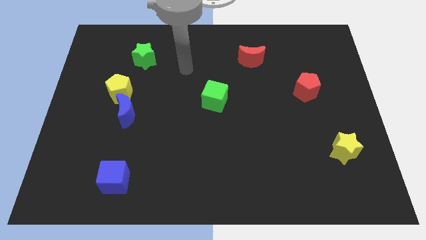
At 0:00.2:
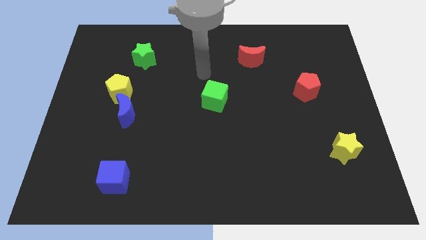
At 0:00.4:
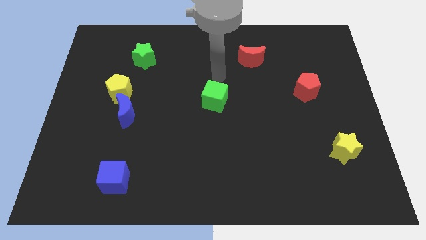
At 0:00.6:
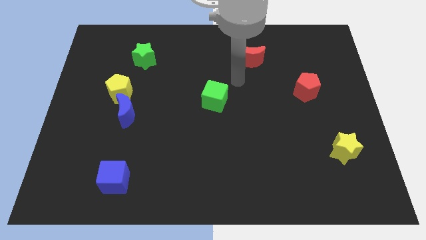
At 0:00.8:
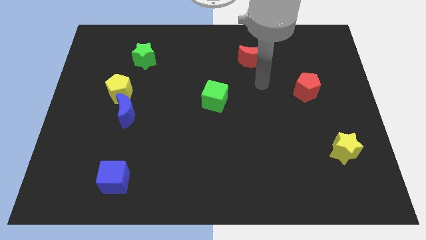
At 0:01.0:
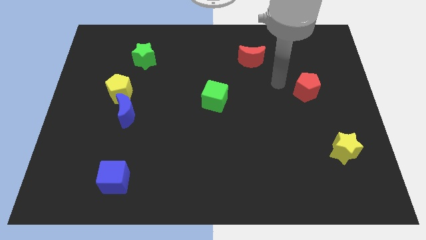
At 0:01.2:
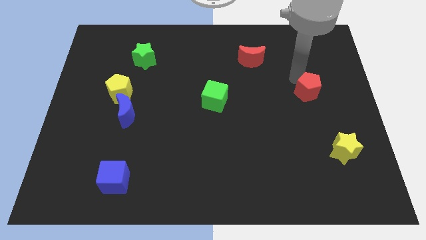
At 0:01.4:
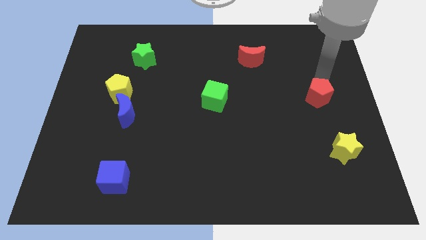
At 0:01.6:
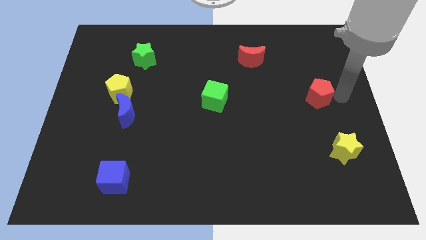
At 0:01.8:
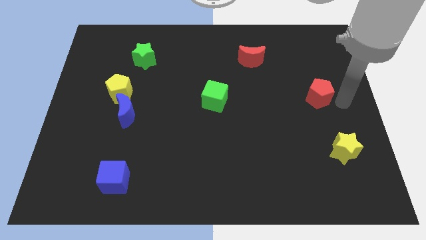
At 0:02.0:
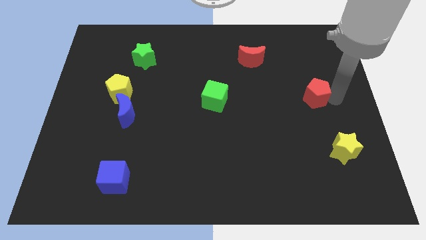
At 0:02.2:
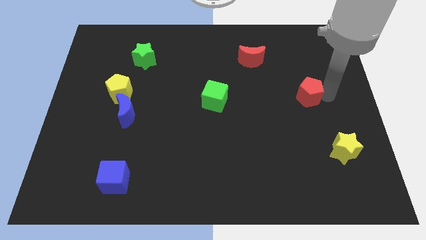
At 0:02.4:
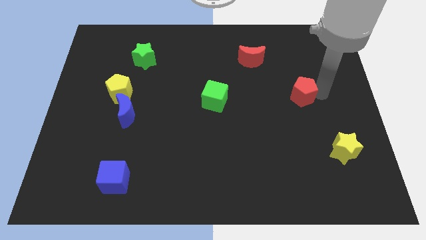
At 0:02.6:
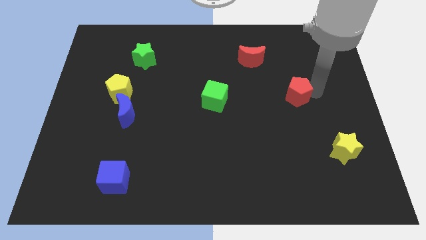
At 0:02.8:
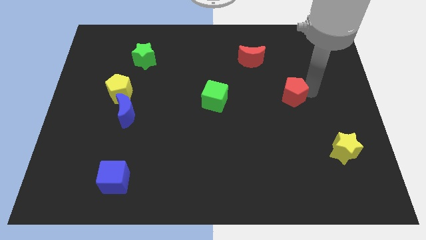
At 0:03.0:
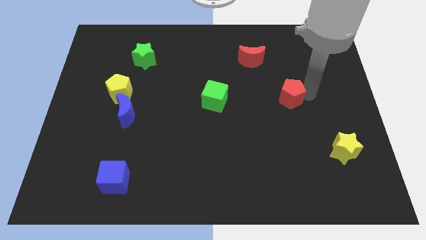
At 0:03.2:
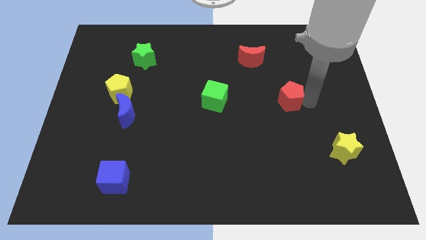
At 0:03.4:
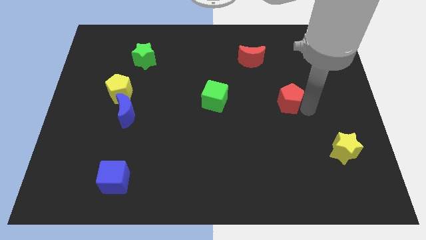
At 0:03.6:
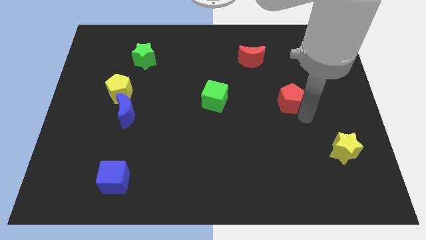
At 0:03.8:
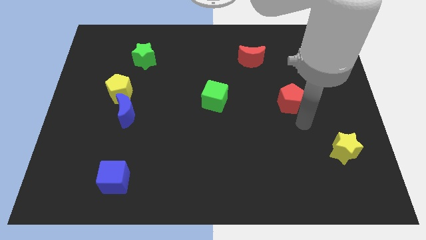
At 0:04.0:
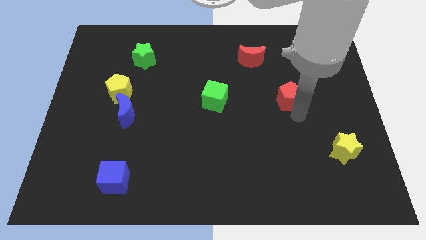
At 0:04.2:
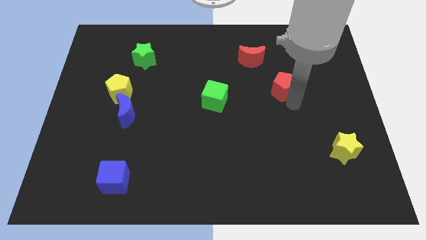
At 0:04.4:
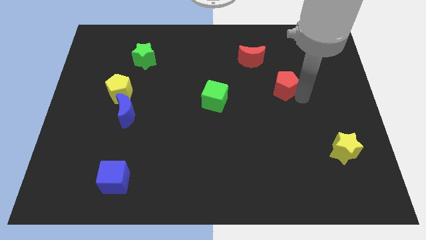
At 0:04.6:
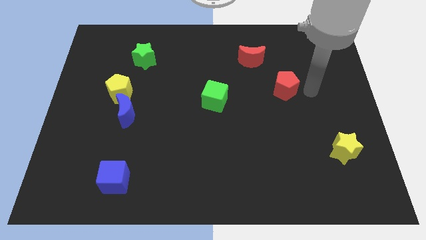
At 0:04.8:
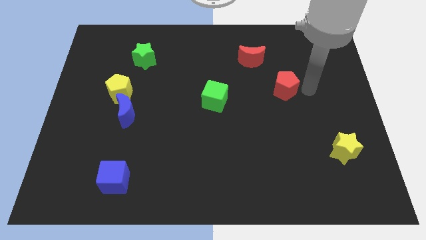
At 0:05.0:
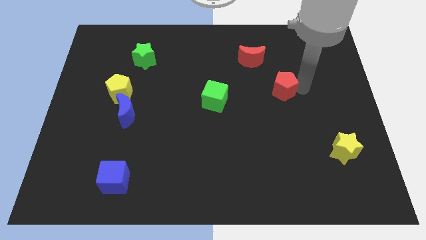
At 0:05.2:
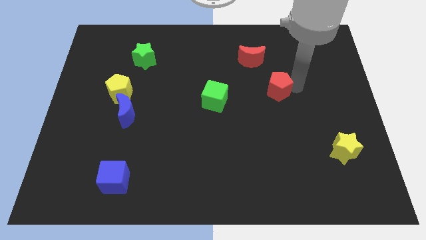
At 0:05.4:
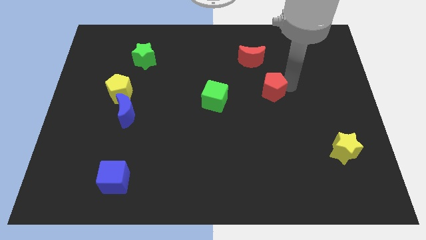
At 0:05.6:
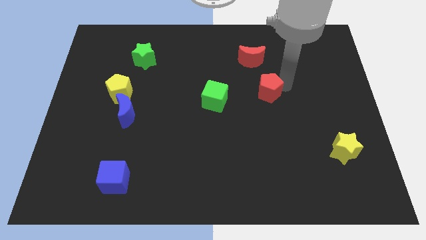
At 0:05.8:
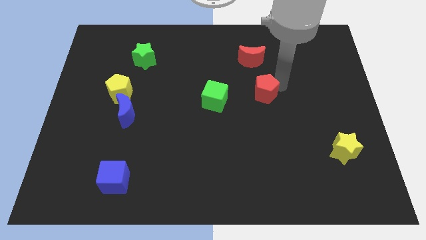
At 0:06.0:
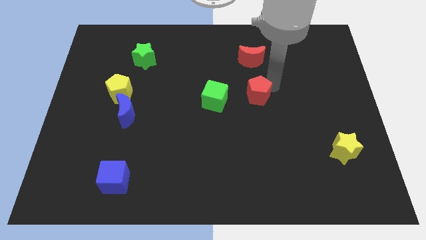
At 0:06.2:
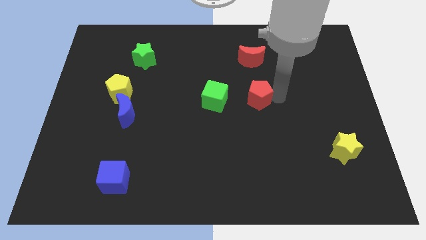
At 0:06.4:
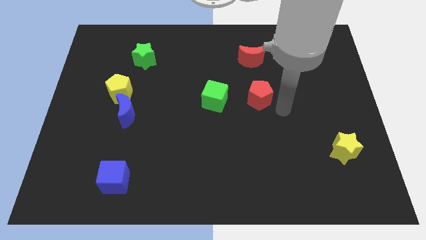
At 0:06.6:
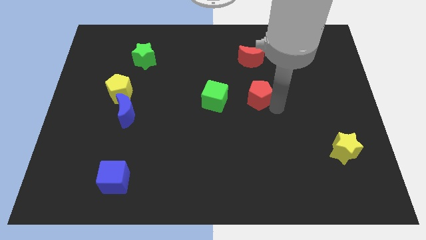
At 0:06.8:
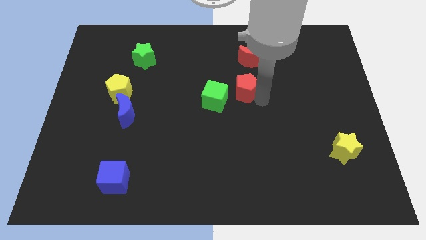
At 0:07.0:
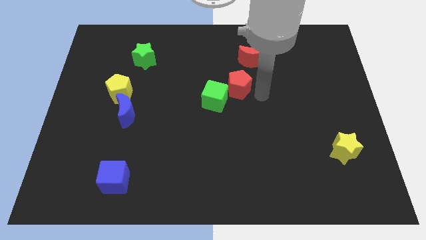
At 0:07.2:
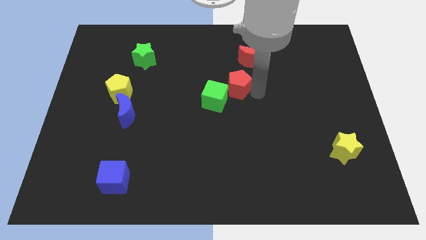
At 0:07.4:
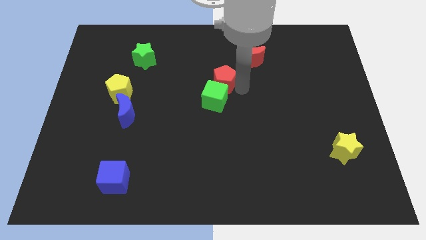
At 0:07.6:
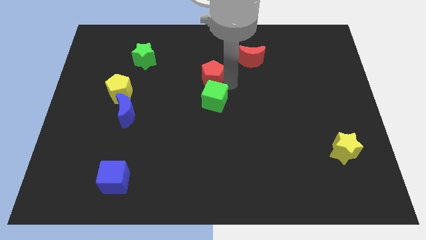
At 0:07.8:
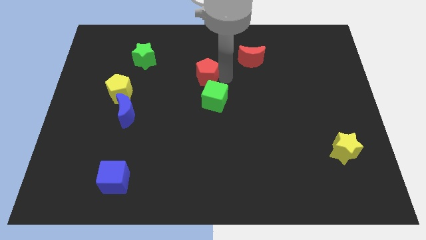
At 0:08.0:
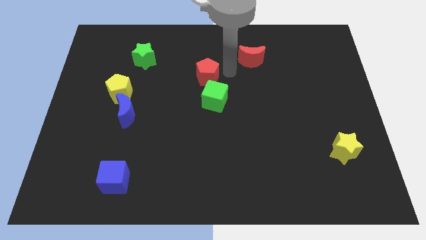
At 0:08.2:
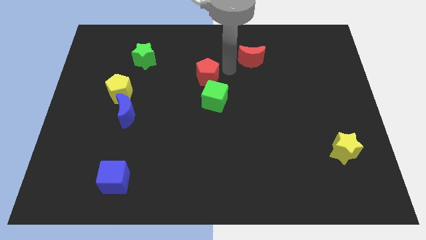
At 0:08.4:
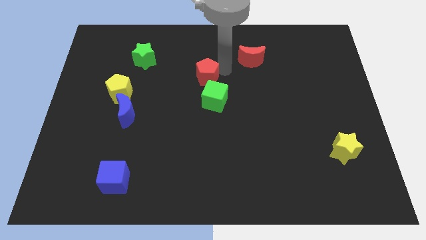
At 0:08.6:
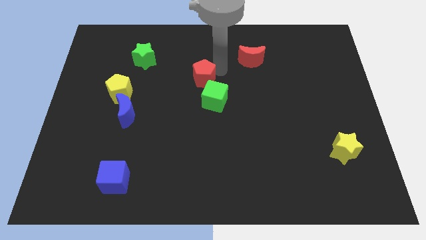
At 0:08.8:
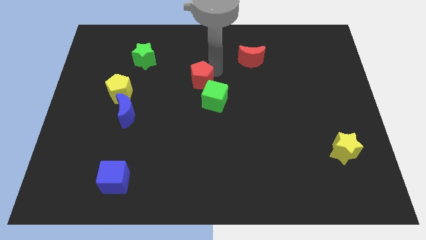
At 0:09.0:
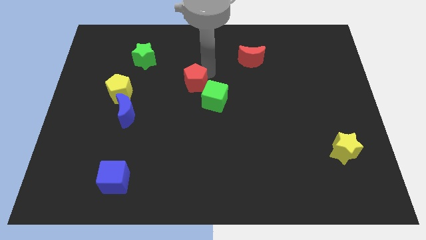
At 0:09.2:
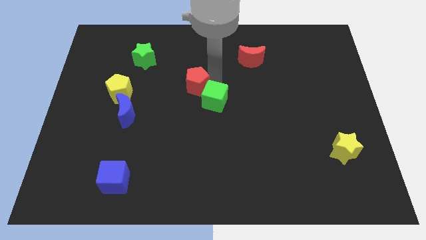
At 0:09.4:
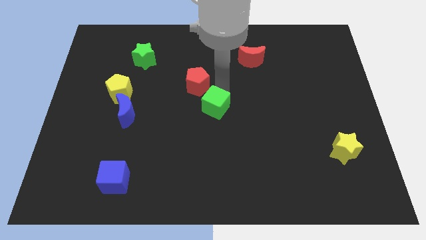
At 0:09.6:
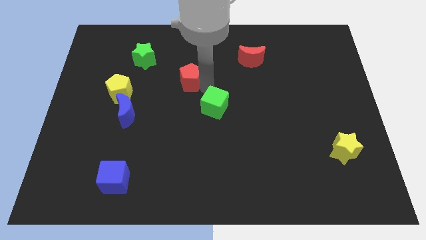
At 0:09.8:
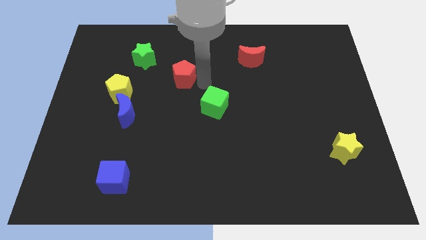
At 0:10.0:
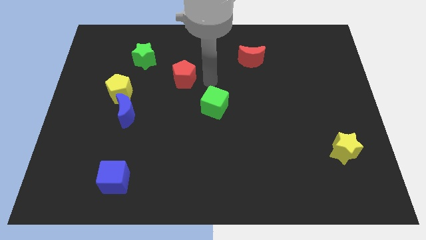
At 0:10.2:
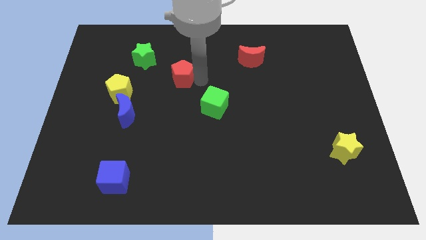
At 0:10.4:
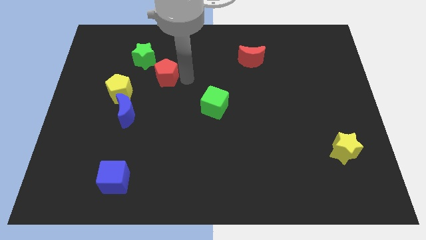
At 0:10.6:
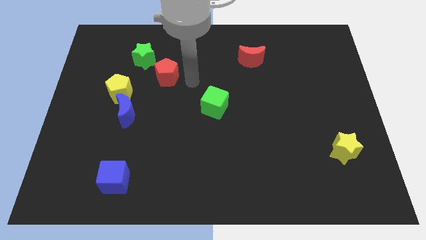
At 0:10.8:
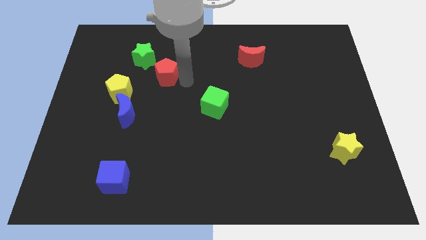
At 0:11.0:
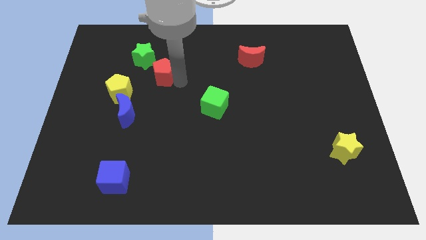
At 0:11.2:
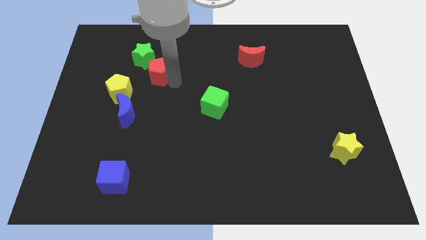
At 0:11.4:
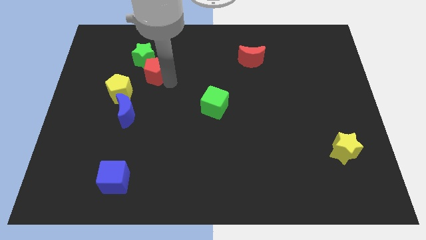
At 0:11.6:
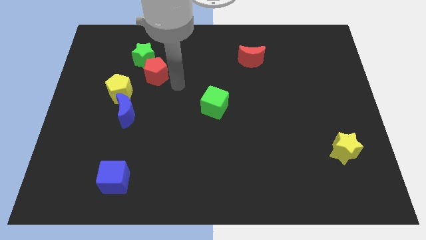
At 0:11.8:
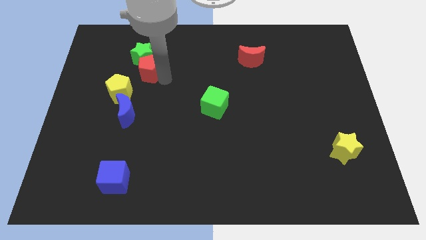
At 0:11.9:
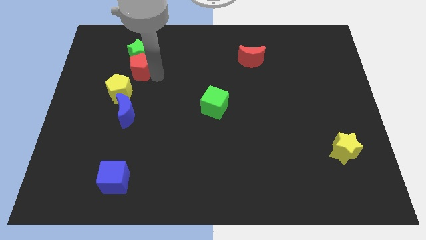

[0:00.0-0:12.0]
put the red pentagon above the yellow pentagon

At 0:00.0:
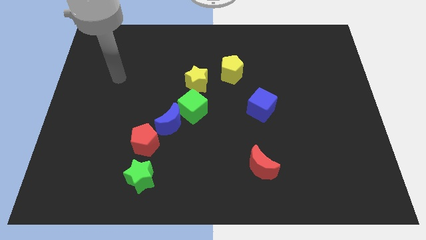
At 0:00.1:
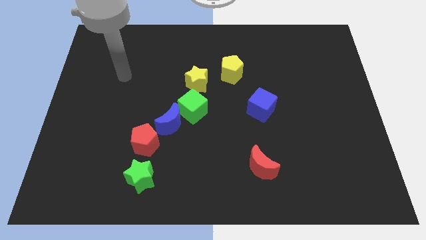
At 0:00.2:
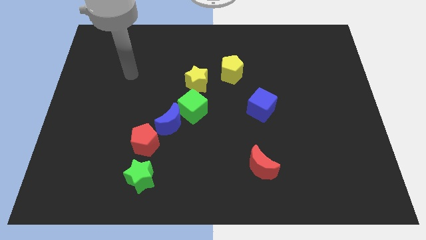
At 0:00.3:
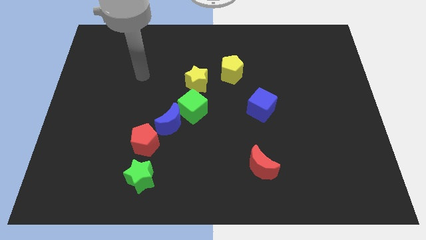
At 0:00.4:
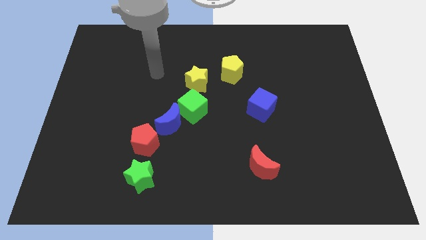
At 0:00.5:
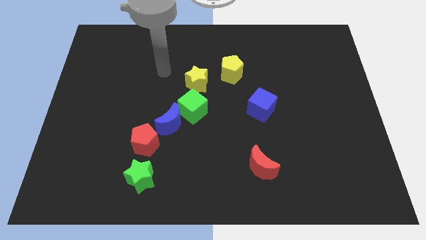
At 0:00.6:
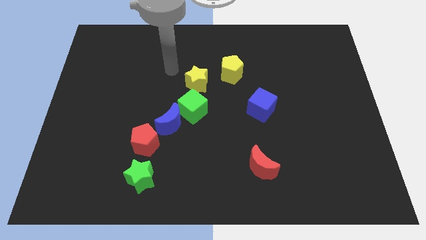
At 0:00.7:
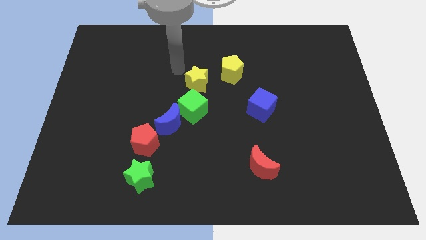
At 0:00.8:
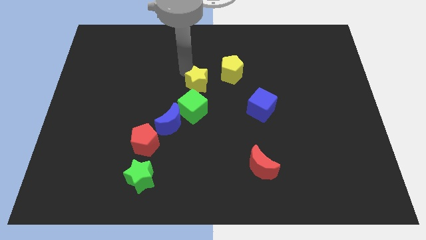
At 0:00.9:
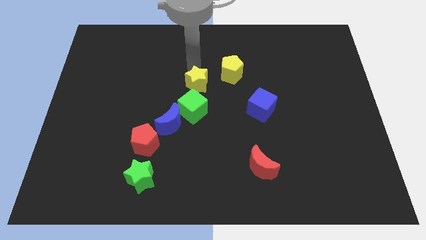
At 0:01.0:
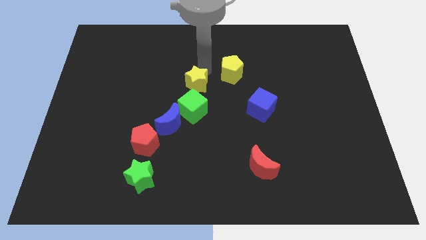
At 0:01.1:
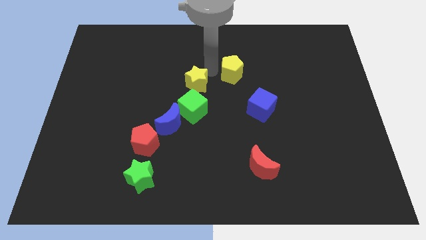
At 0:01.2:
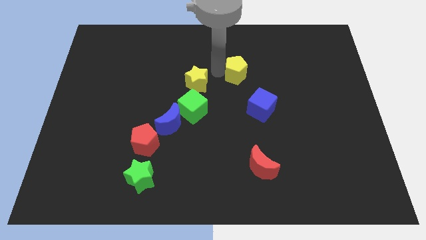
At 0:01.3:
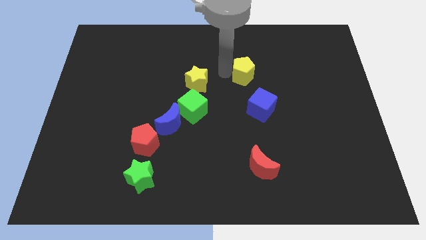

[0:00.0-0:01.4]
slide the yellow pentagon to the top of the blue cube
